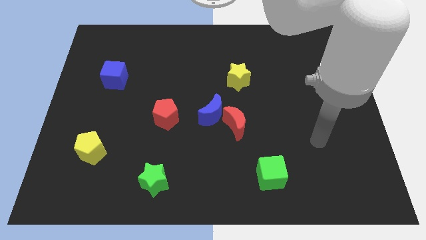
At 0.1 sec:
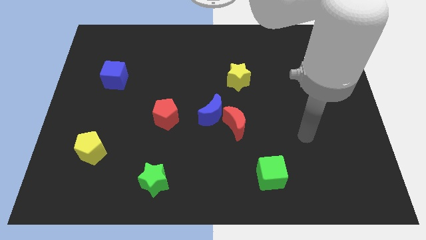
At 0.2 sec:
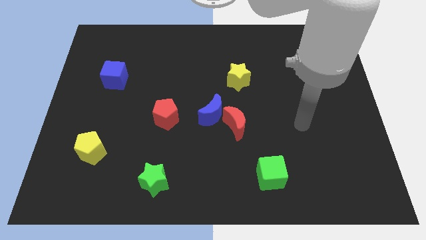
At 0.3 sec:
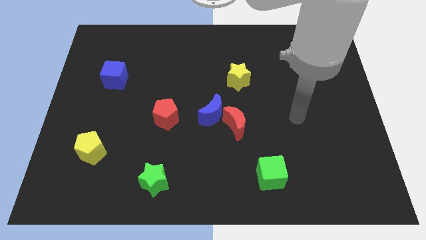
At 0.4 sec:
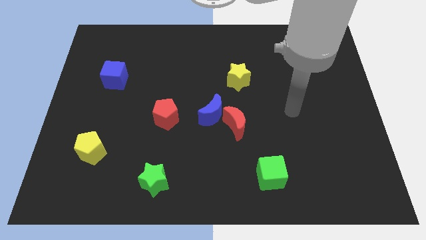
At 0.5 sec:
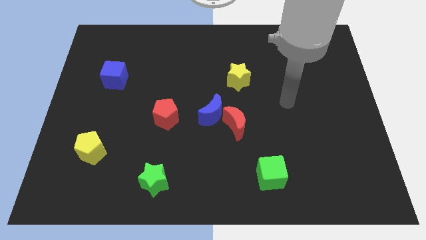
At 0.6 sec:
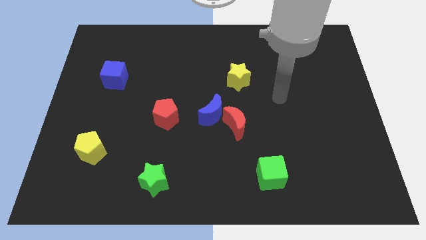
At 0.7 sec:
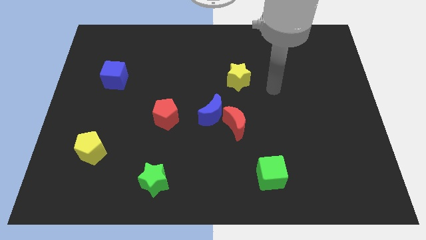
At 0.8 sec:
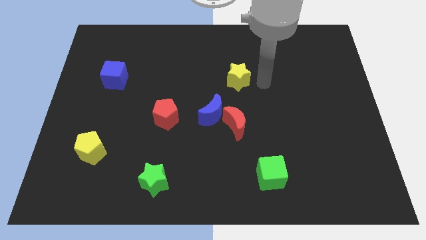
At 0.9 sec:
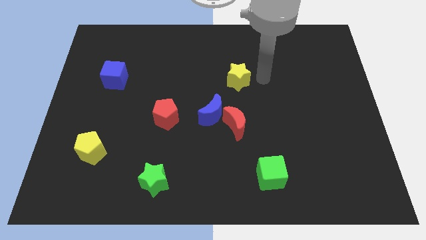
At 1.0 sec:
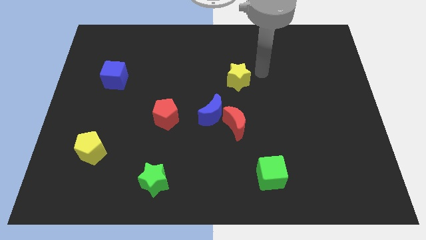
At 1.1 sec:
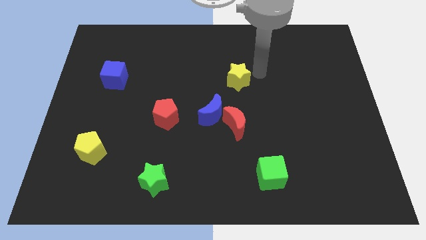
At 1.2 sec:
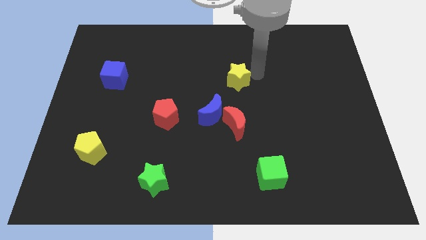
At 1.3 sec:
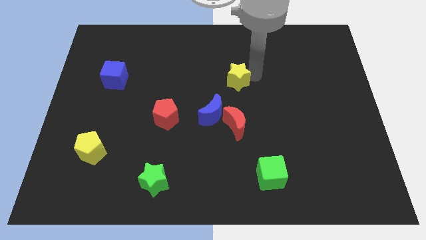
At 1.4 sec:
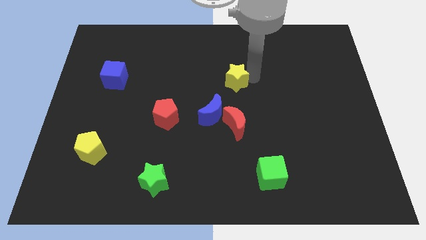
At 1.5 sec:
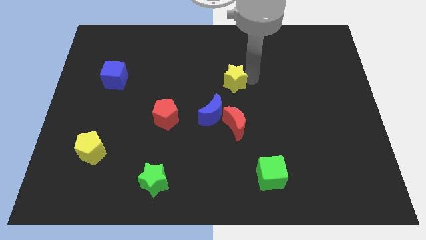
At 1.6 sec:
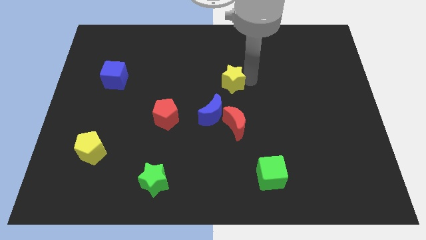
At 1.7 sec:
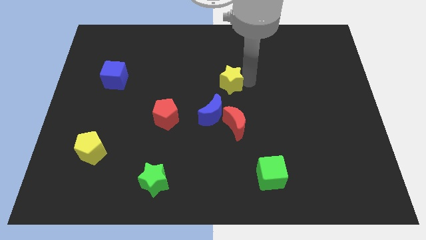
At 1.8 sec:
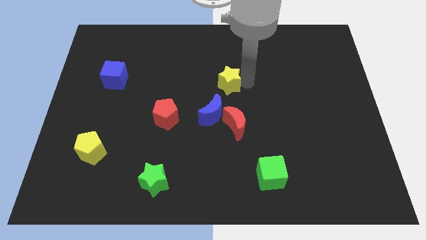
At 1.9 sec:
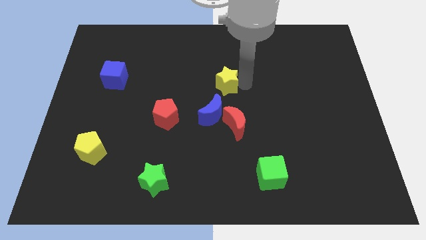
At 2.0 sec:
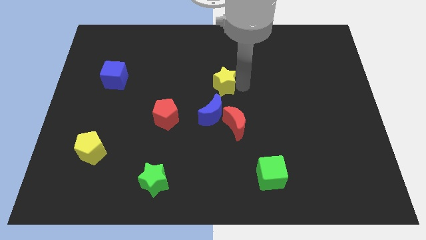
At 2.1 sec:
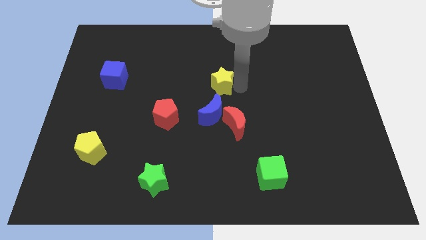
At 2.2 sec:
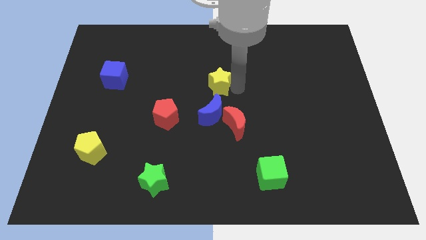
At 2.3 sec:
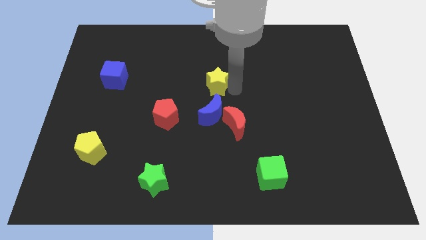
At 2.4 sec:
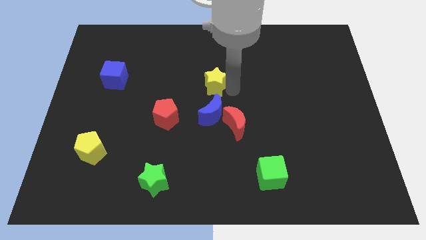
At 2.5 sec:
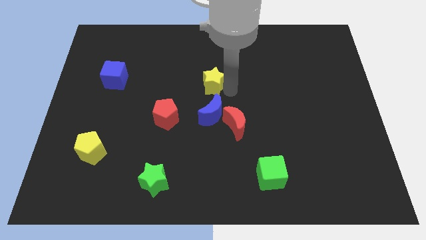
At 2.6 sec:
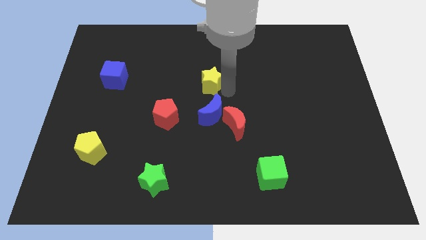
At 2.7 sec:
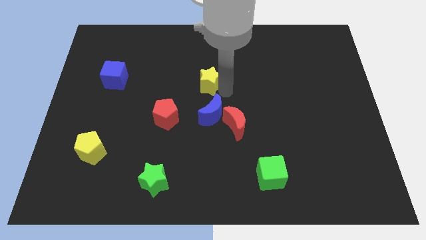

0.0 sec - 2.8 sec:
push the yellow star left a little bit

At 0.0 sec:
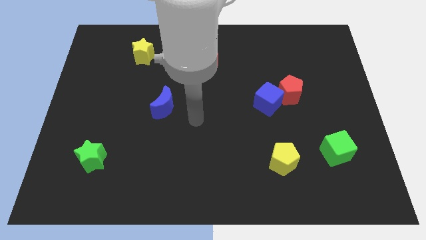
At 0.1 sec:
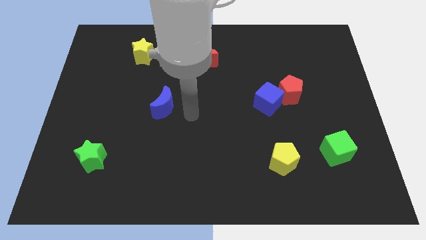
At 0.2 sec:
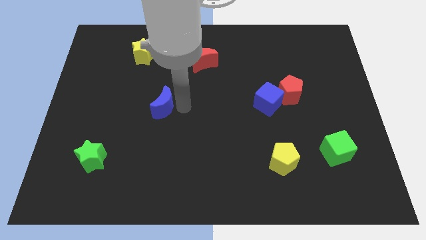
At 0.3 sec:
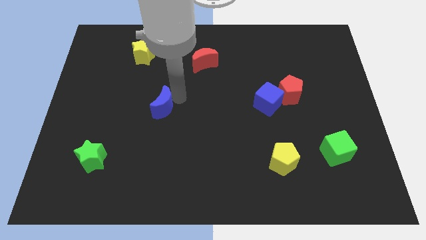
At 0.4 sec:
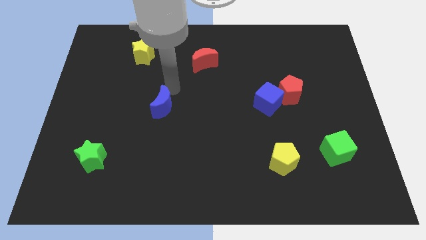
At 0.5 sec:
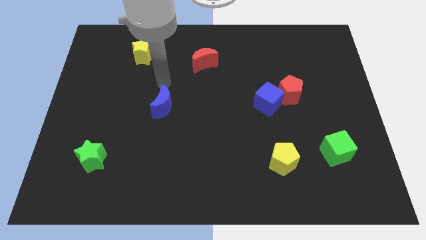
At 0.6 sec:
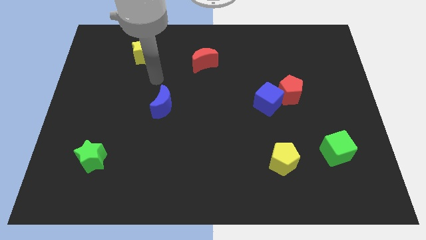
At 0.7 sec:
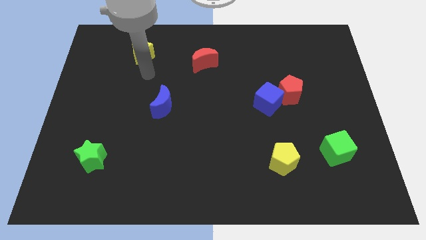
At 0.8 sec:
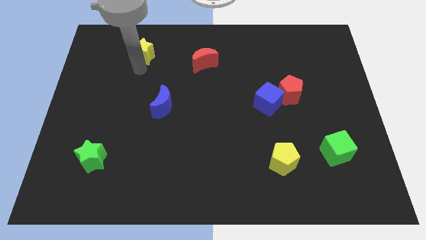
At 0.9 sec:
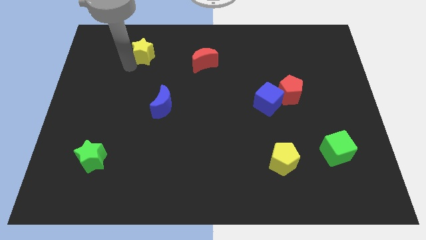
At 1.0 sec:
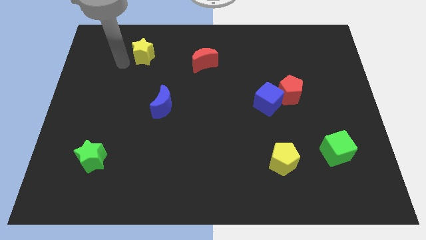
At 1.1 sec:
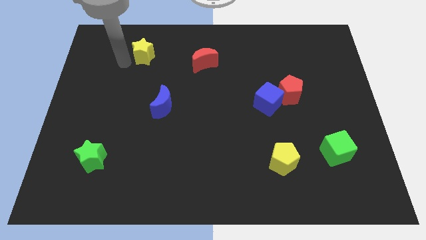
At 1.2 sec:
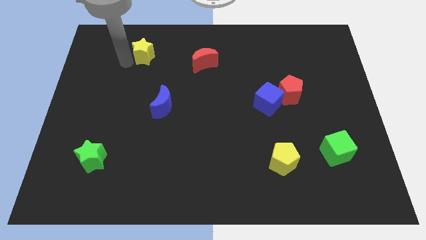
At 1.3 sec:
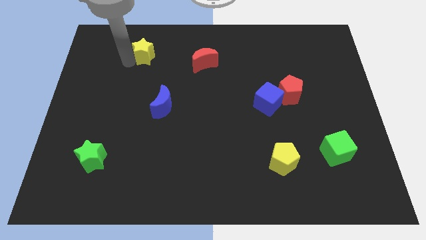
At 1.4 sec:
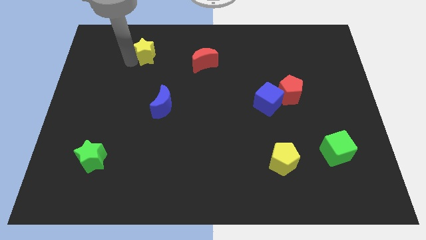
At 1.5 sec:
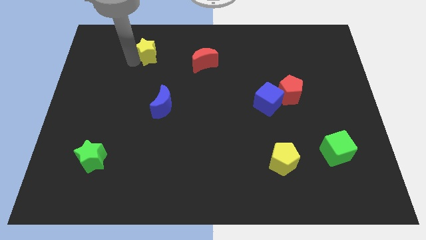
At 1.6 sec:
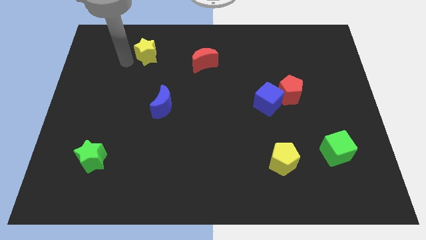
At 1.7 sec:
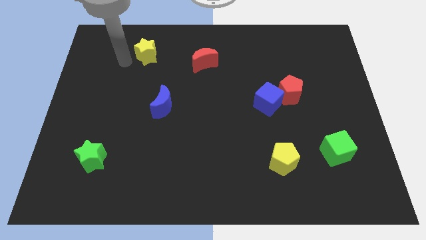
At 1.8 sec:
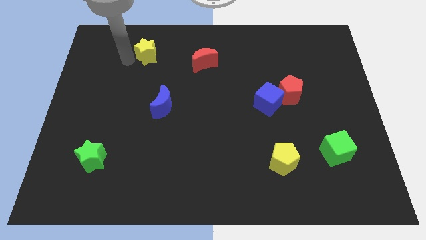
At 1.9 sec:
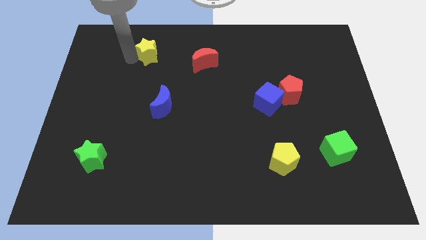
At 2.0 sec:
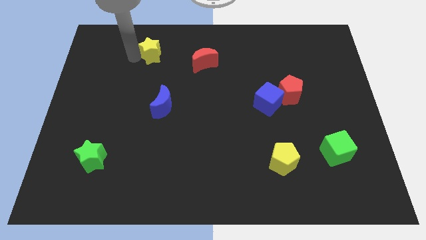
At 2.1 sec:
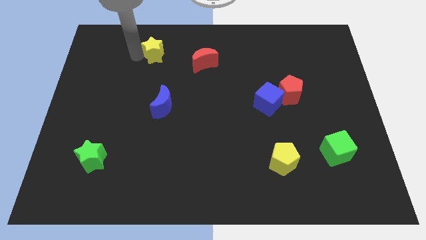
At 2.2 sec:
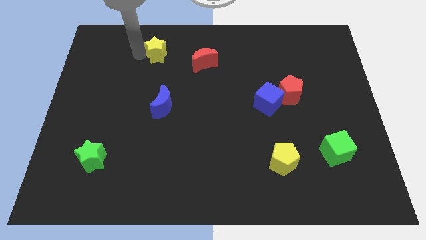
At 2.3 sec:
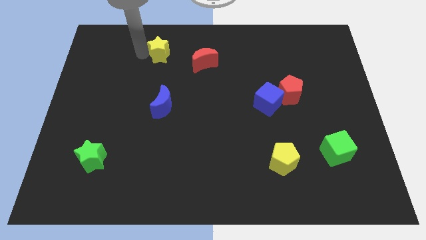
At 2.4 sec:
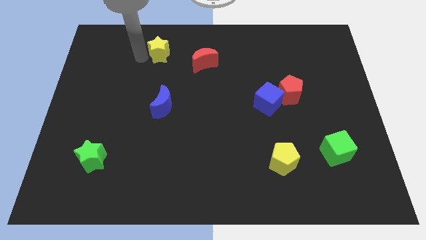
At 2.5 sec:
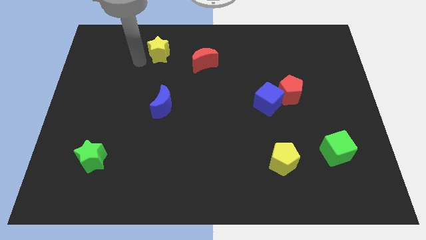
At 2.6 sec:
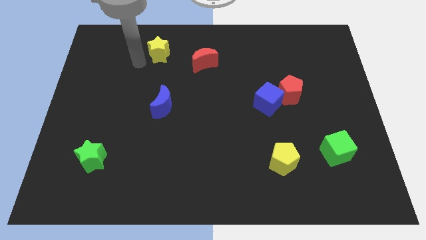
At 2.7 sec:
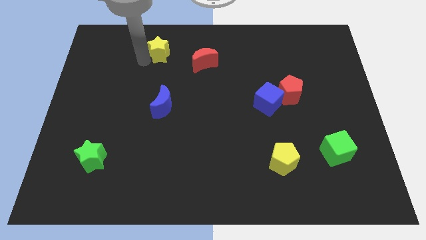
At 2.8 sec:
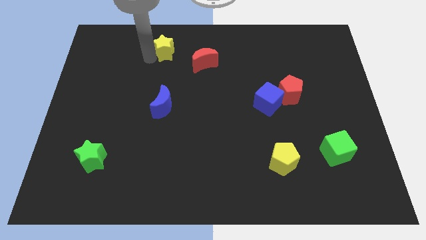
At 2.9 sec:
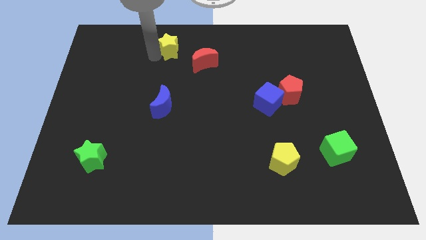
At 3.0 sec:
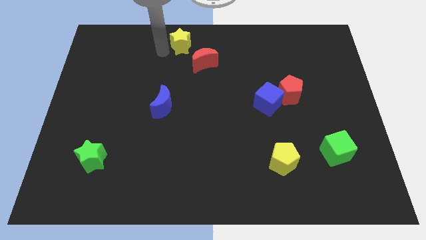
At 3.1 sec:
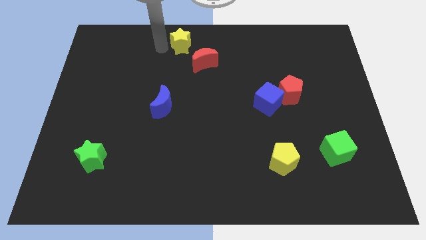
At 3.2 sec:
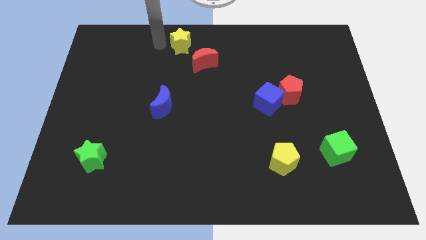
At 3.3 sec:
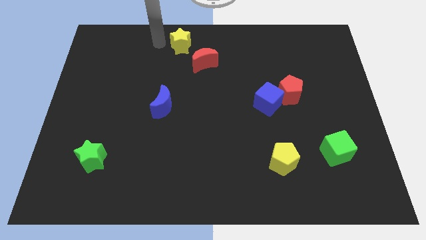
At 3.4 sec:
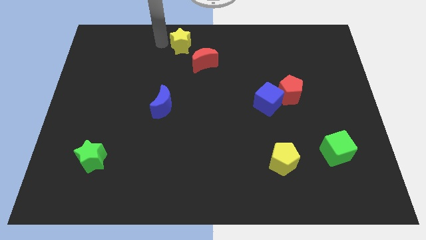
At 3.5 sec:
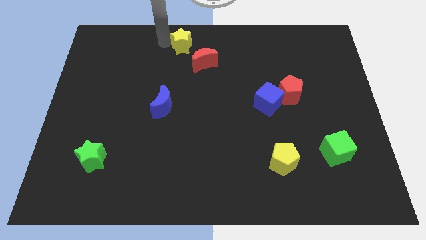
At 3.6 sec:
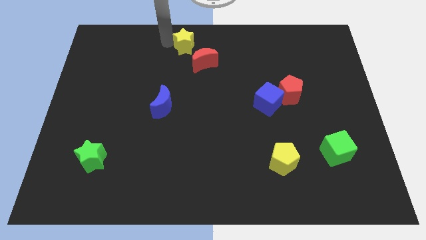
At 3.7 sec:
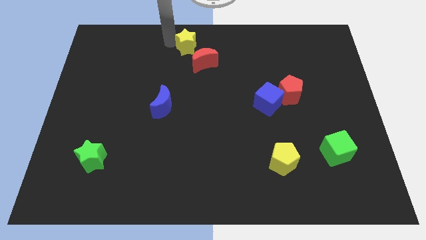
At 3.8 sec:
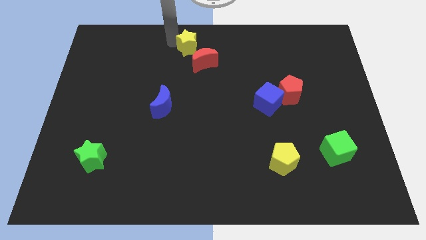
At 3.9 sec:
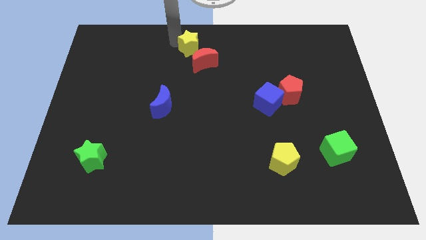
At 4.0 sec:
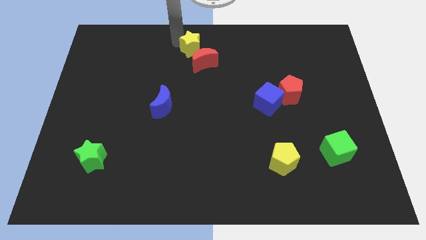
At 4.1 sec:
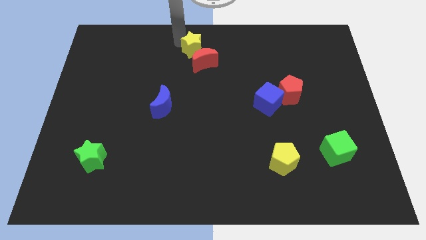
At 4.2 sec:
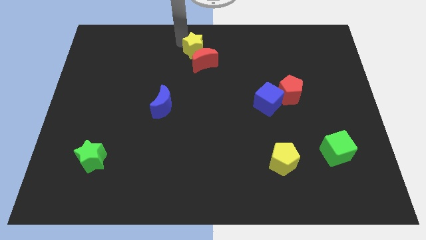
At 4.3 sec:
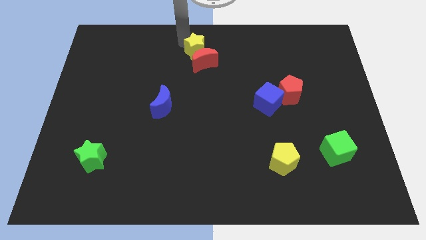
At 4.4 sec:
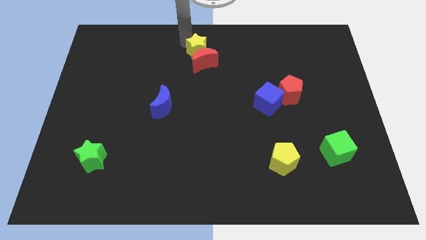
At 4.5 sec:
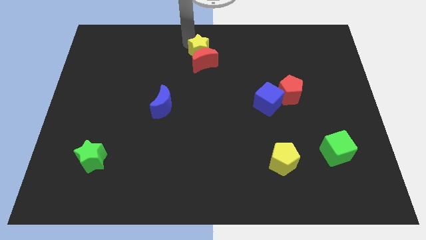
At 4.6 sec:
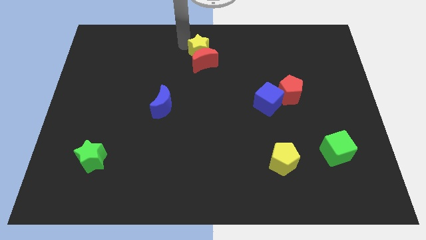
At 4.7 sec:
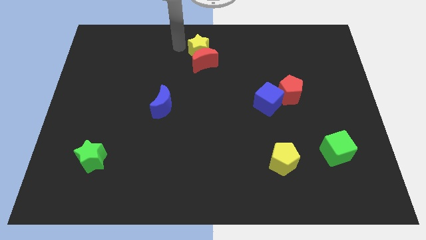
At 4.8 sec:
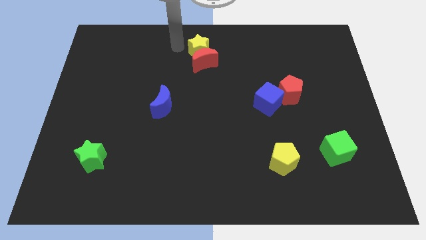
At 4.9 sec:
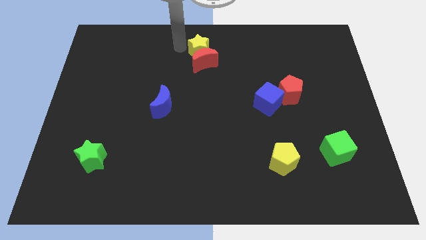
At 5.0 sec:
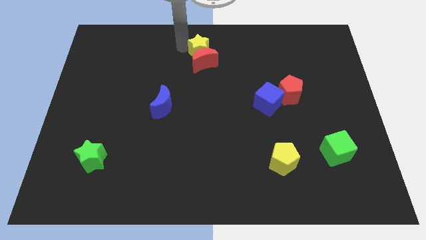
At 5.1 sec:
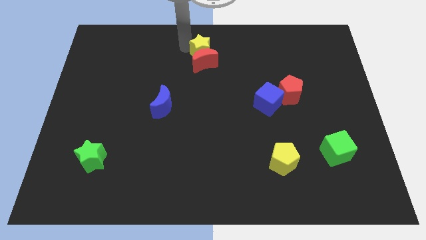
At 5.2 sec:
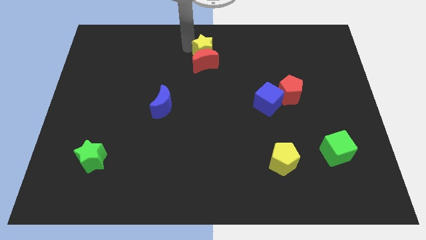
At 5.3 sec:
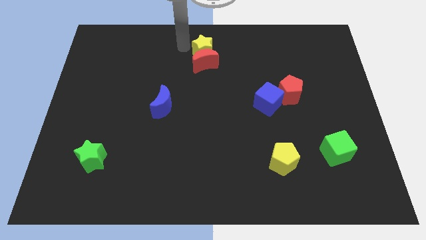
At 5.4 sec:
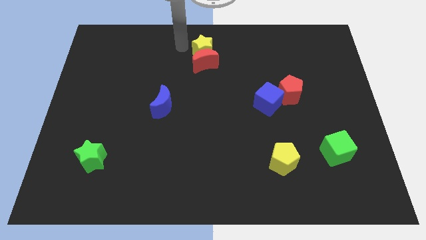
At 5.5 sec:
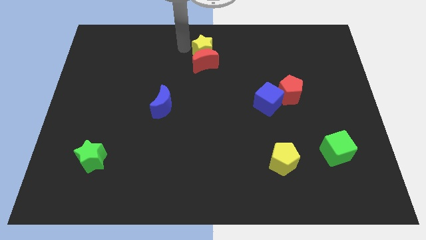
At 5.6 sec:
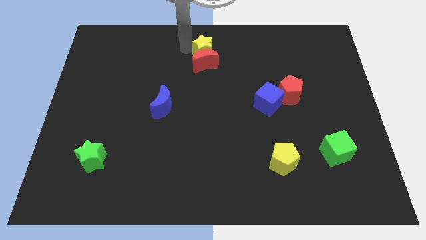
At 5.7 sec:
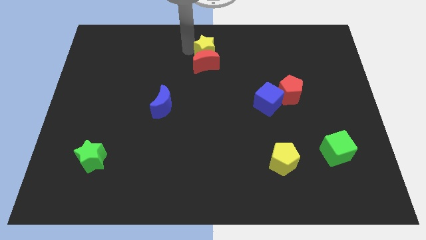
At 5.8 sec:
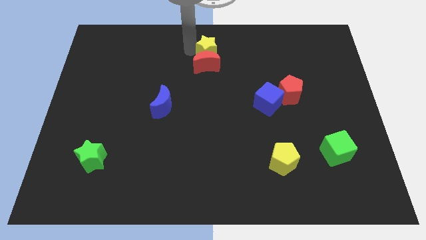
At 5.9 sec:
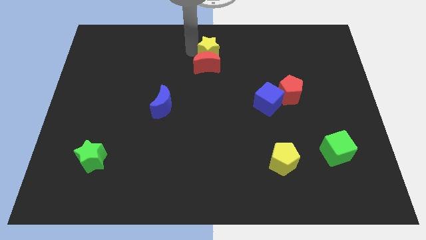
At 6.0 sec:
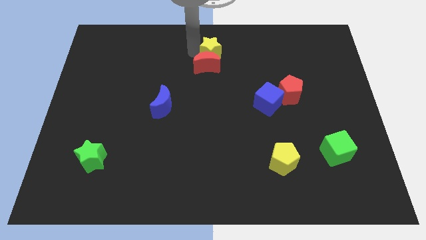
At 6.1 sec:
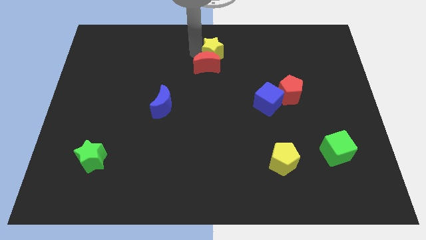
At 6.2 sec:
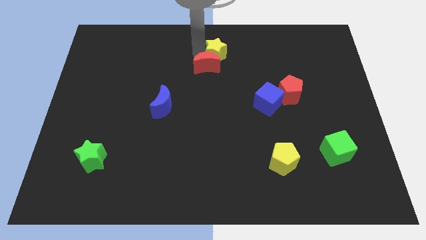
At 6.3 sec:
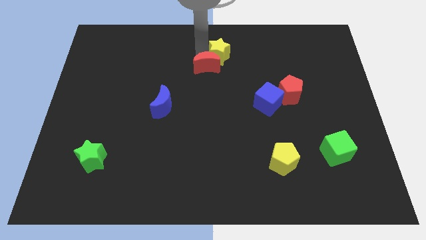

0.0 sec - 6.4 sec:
push the yellow star right
